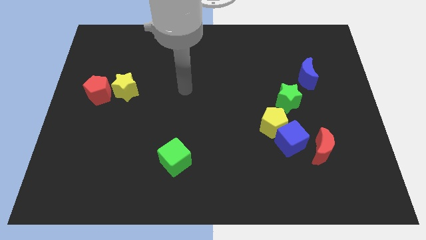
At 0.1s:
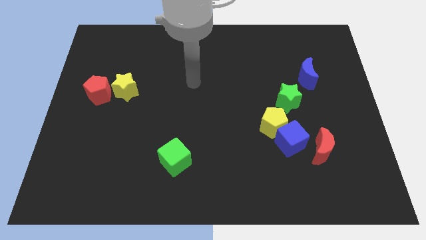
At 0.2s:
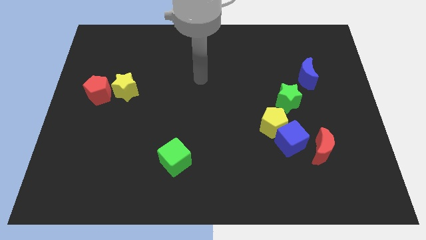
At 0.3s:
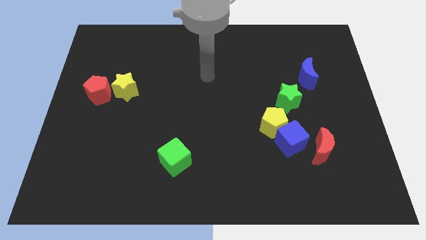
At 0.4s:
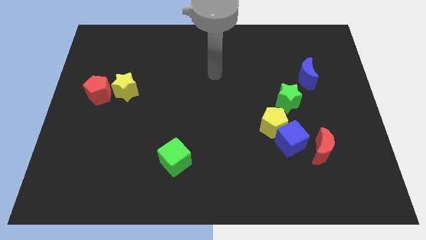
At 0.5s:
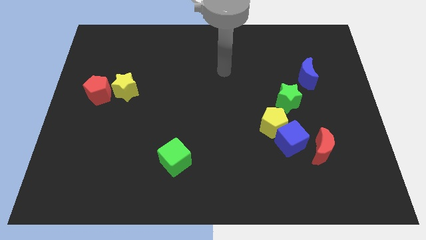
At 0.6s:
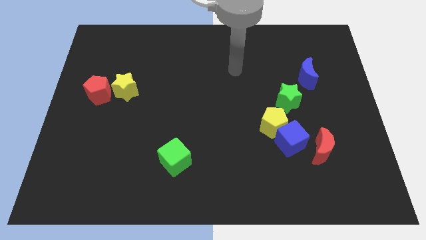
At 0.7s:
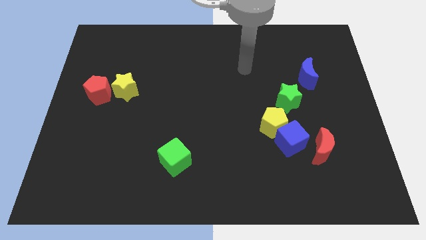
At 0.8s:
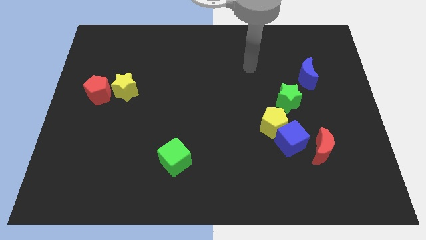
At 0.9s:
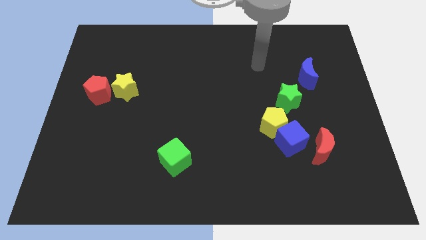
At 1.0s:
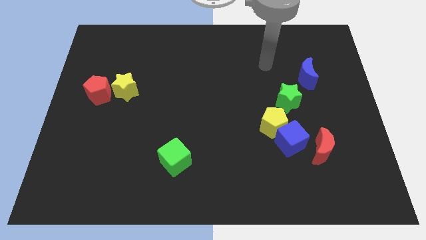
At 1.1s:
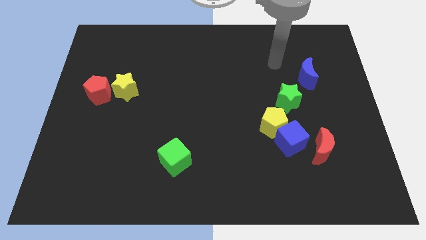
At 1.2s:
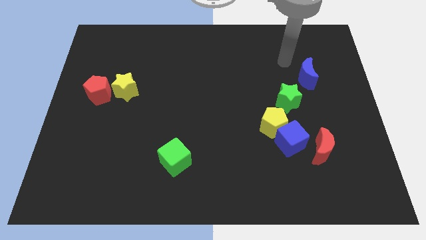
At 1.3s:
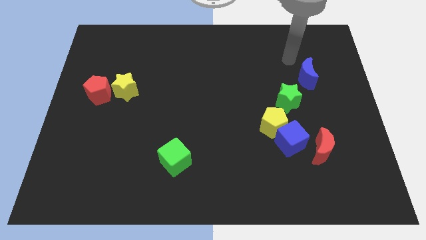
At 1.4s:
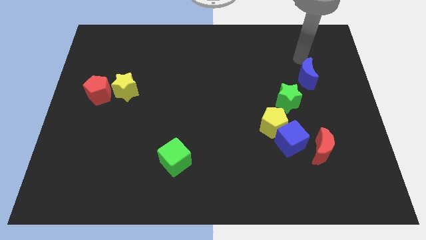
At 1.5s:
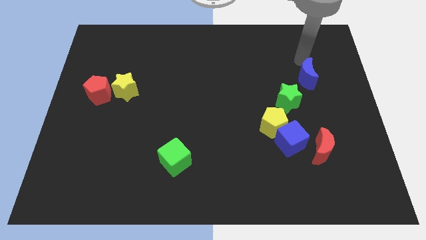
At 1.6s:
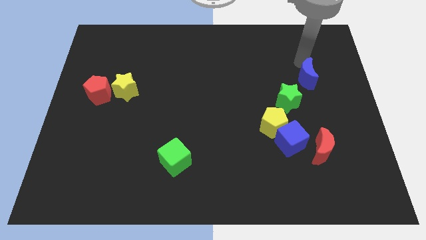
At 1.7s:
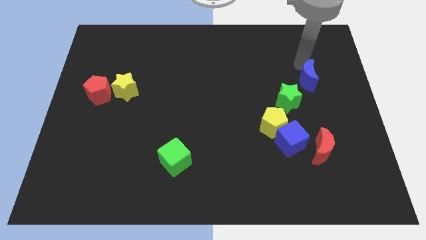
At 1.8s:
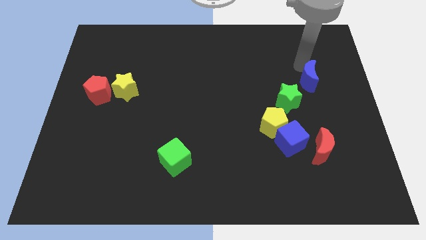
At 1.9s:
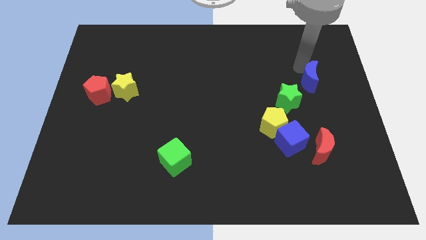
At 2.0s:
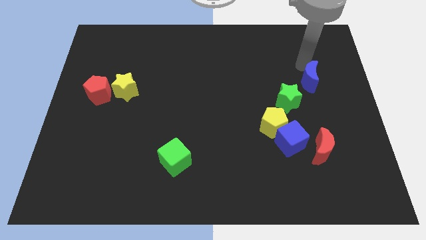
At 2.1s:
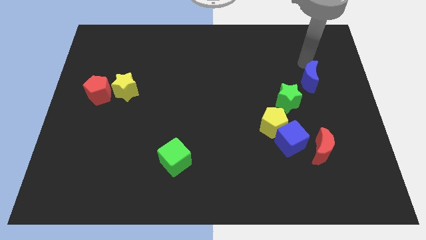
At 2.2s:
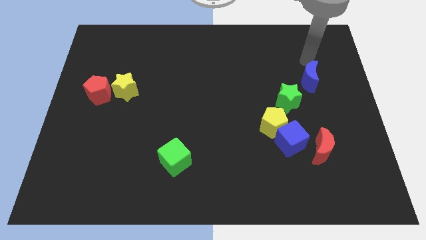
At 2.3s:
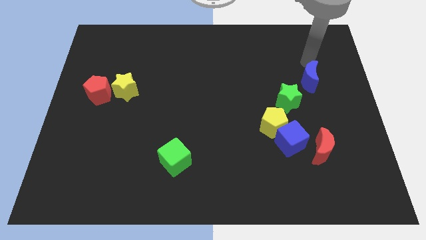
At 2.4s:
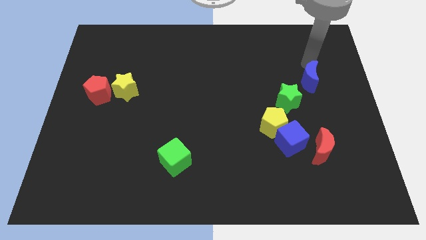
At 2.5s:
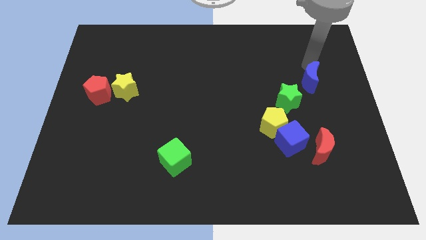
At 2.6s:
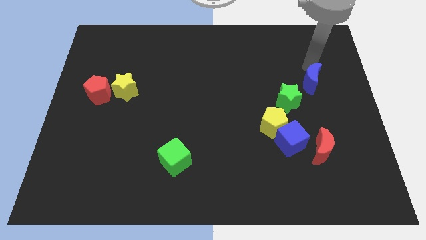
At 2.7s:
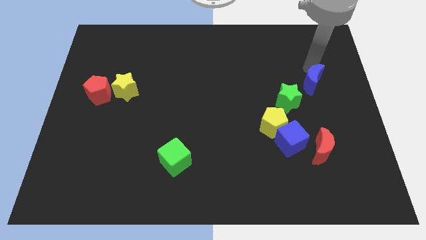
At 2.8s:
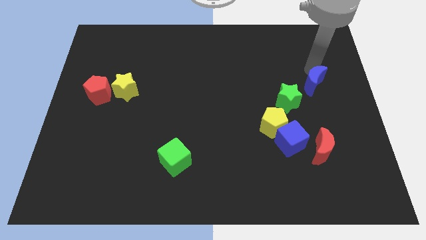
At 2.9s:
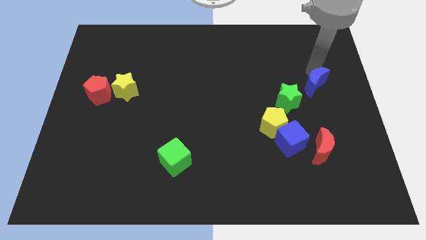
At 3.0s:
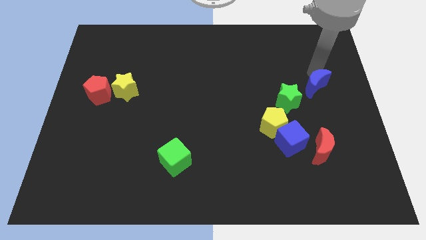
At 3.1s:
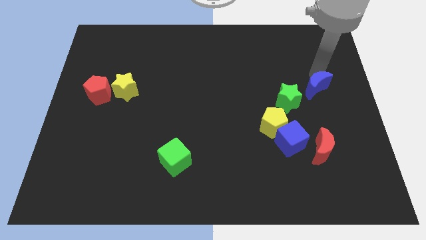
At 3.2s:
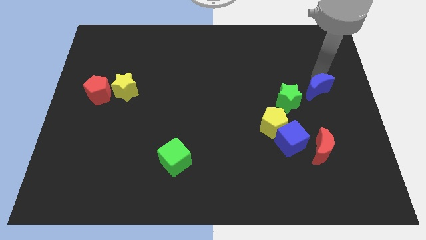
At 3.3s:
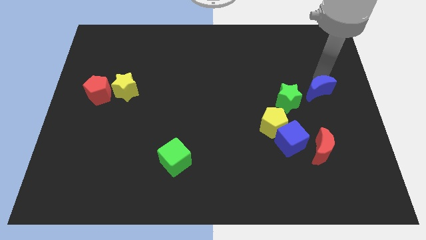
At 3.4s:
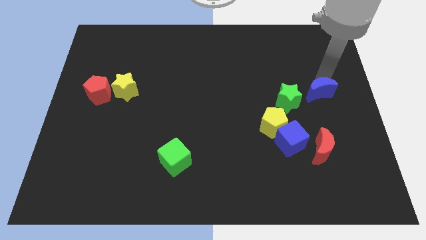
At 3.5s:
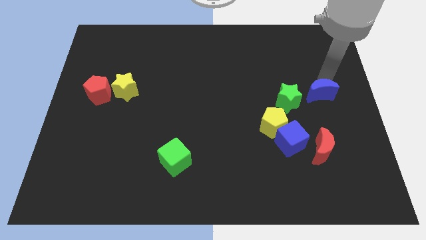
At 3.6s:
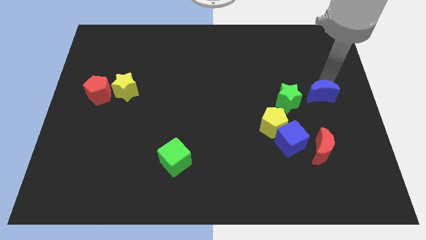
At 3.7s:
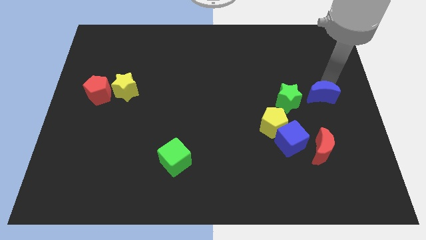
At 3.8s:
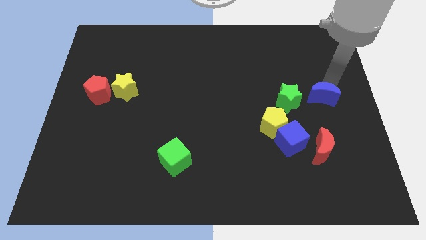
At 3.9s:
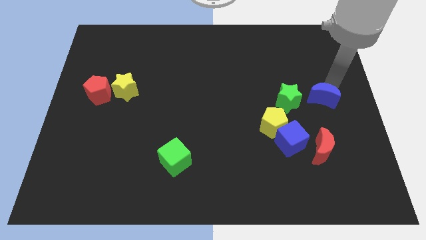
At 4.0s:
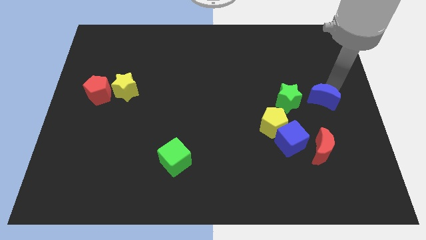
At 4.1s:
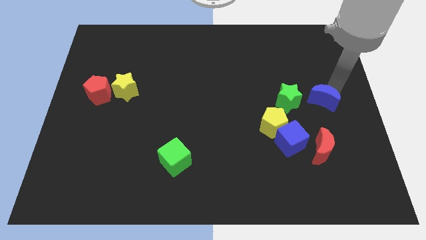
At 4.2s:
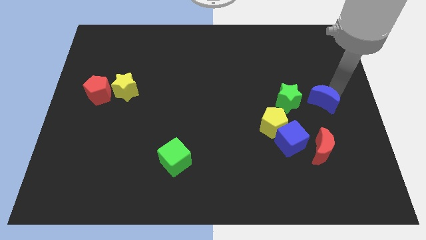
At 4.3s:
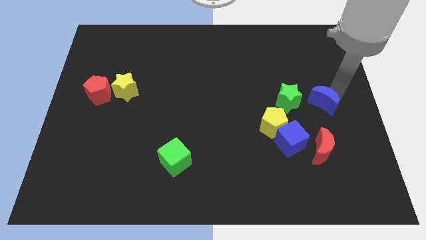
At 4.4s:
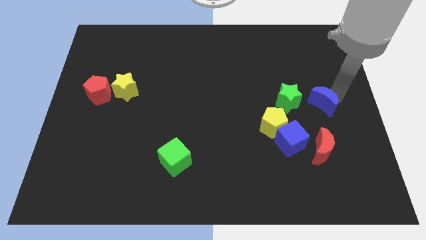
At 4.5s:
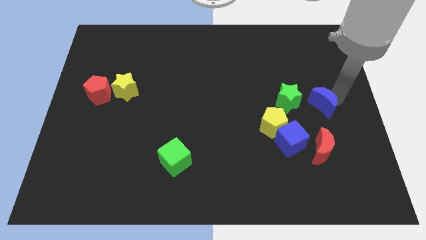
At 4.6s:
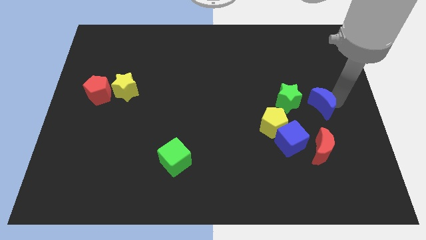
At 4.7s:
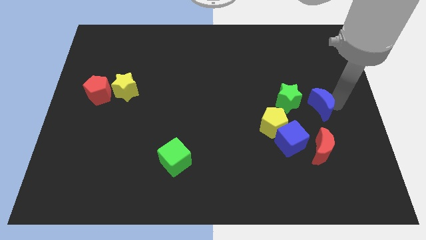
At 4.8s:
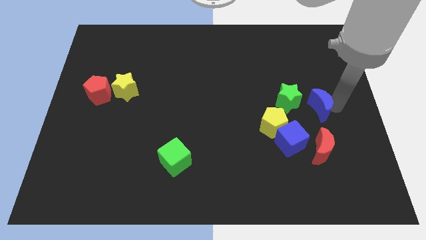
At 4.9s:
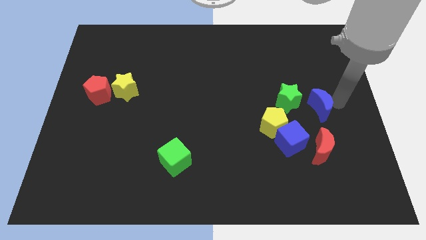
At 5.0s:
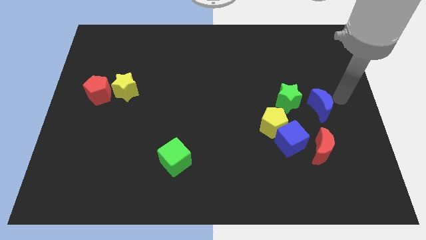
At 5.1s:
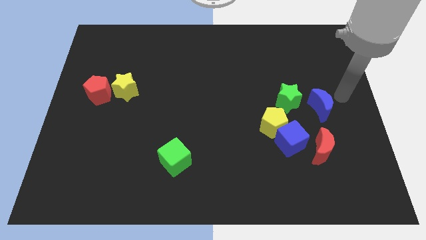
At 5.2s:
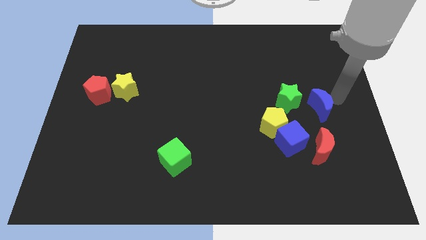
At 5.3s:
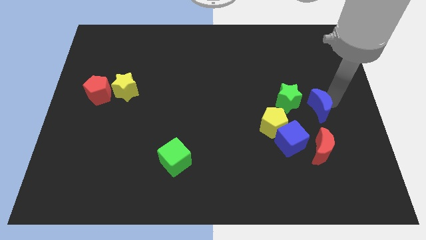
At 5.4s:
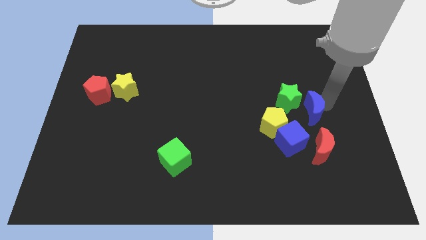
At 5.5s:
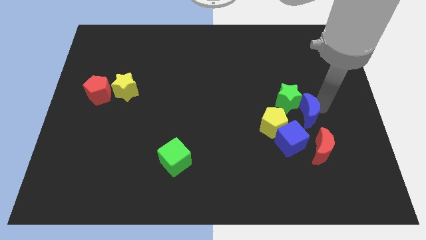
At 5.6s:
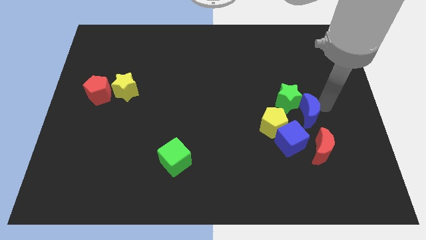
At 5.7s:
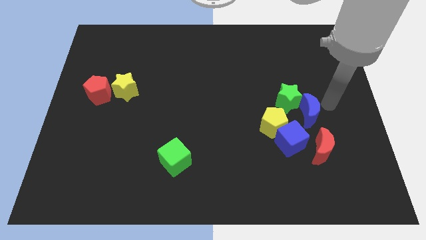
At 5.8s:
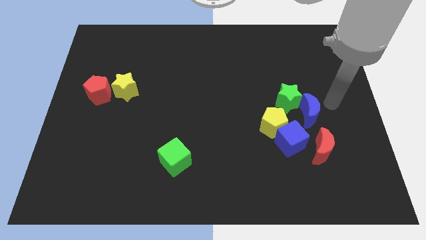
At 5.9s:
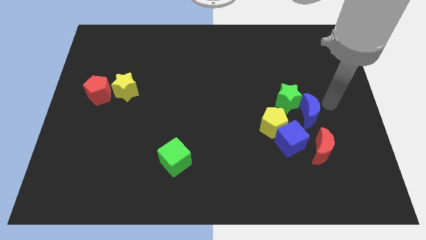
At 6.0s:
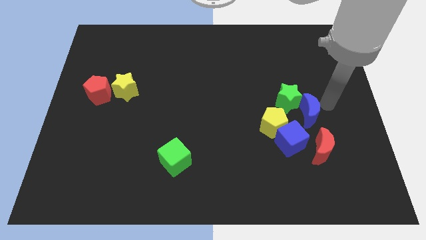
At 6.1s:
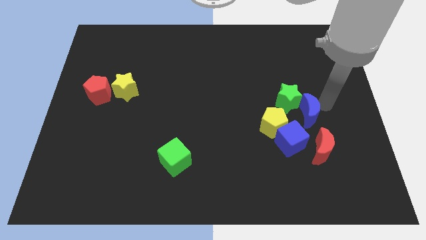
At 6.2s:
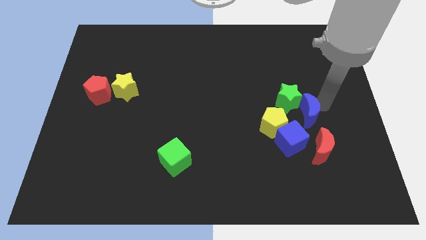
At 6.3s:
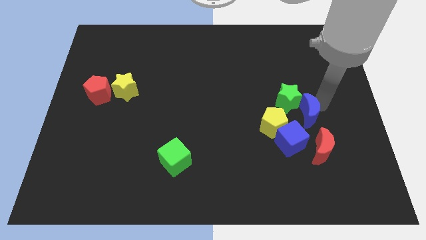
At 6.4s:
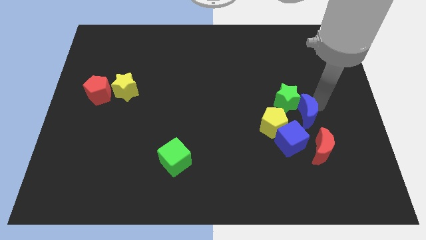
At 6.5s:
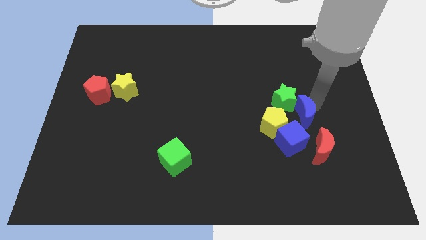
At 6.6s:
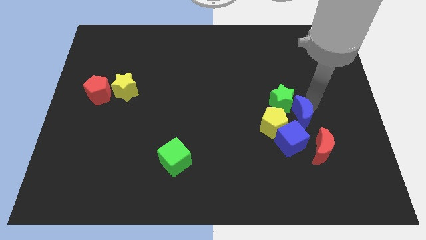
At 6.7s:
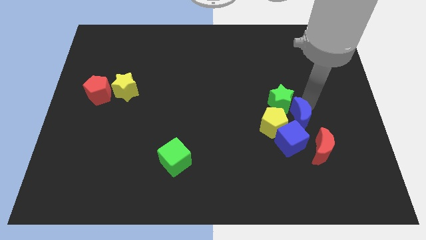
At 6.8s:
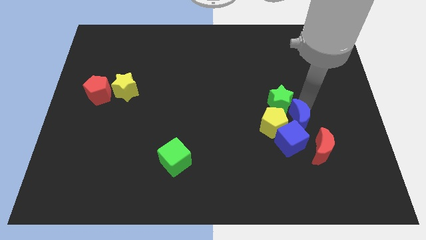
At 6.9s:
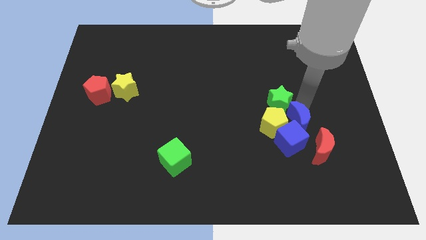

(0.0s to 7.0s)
move the blue moon towards the yellow pentagon
